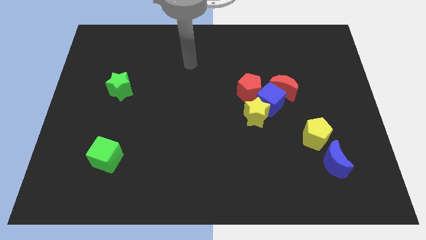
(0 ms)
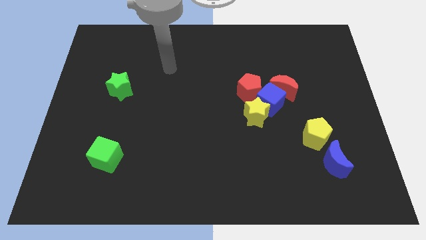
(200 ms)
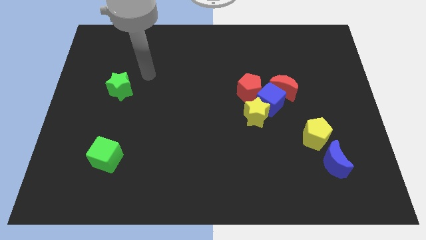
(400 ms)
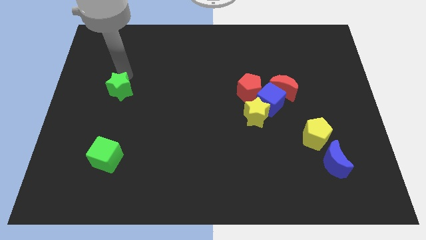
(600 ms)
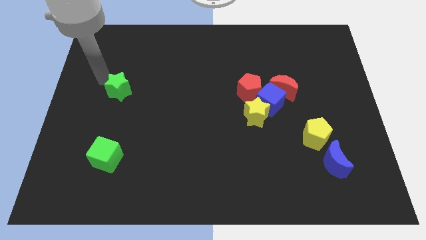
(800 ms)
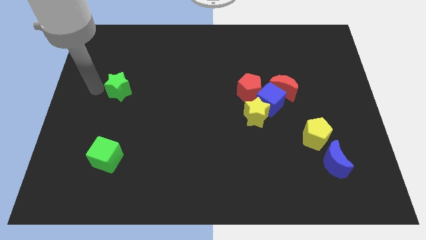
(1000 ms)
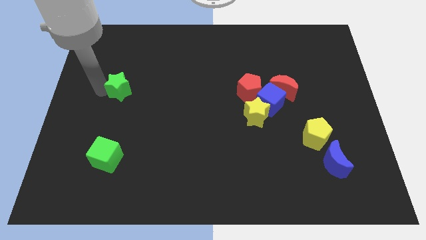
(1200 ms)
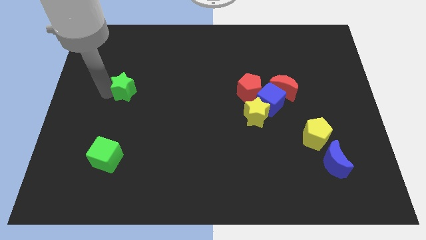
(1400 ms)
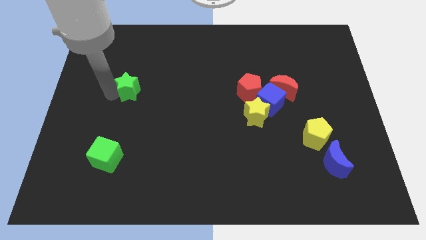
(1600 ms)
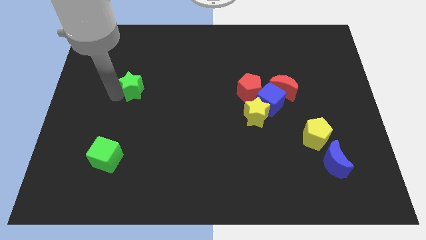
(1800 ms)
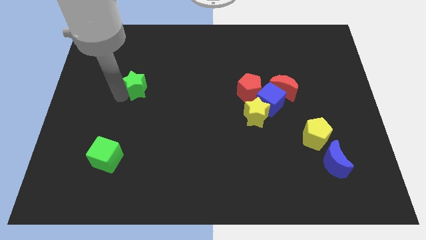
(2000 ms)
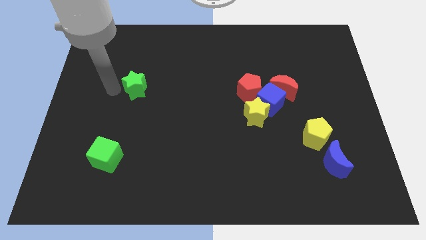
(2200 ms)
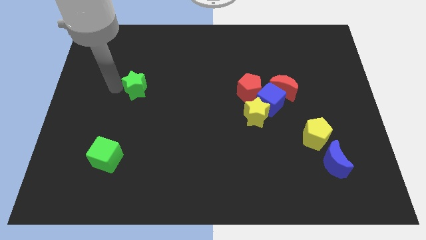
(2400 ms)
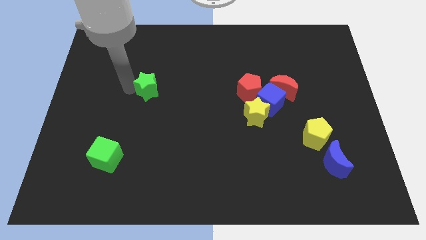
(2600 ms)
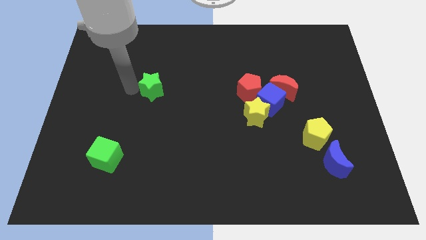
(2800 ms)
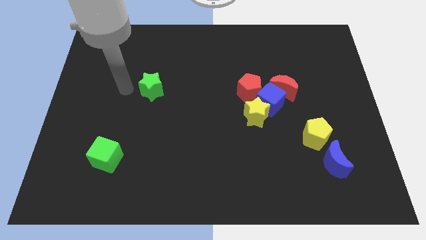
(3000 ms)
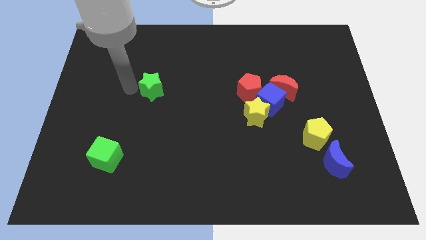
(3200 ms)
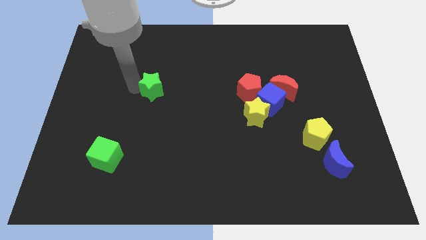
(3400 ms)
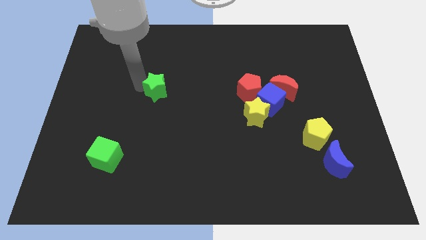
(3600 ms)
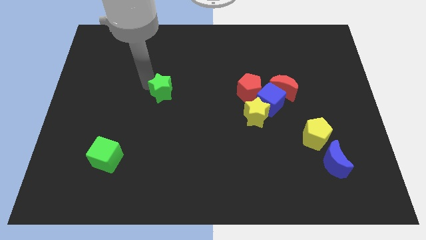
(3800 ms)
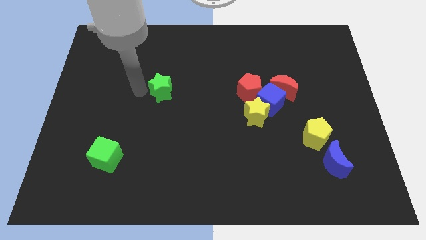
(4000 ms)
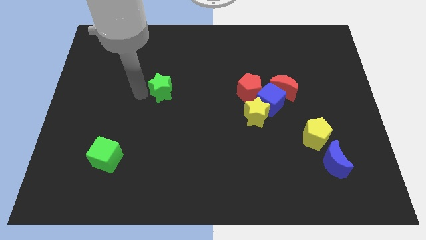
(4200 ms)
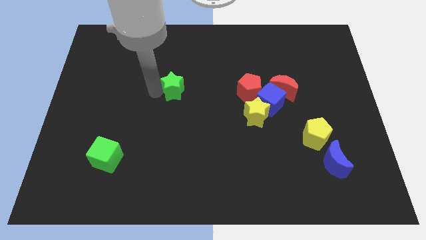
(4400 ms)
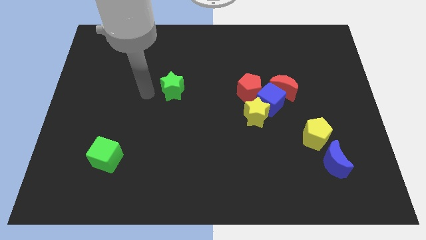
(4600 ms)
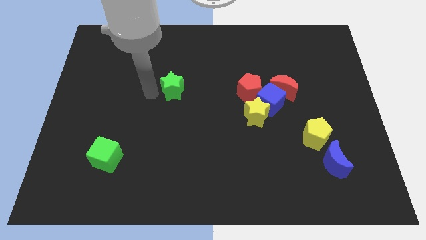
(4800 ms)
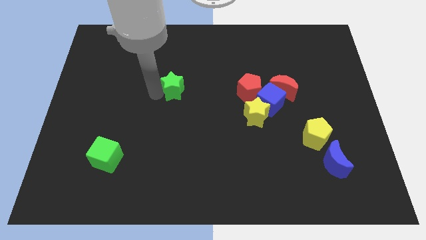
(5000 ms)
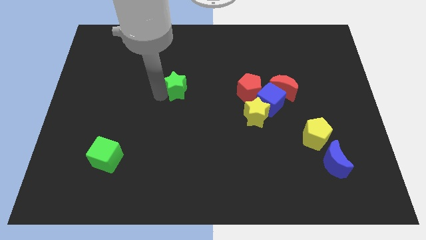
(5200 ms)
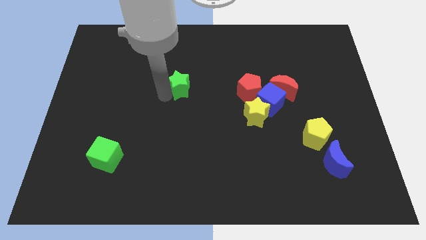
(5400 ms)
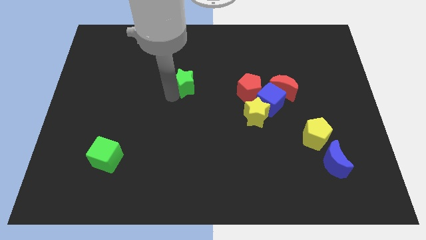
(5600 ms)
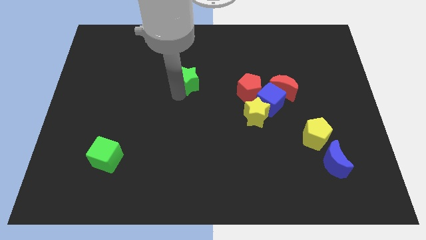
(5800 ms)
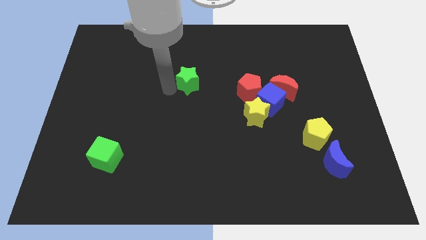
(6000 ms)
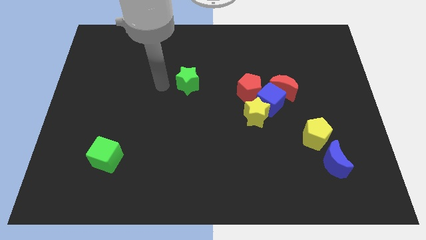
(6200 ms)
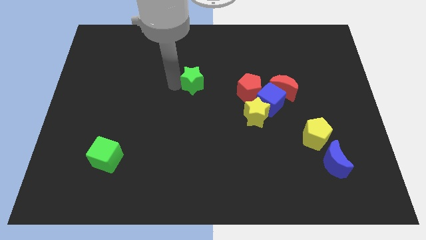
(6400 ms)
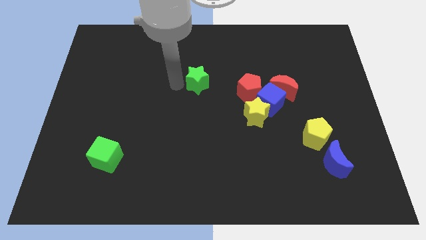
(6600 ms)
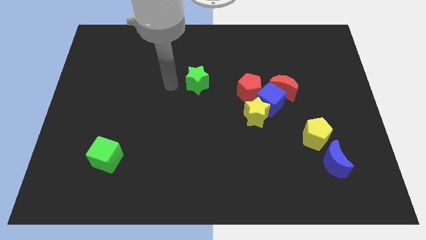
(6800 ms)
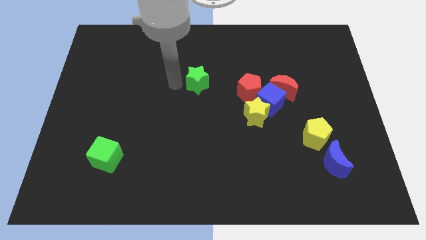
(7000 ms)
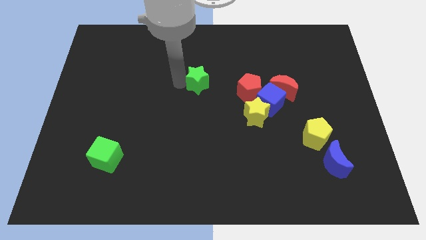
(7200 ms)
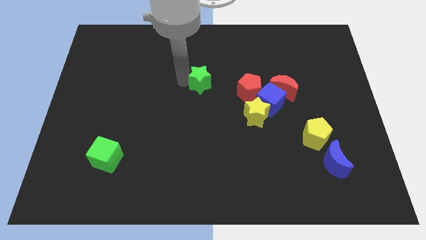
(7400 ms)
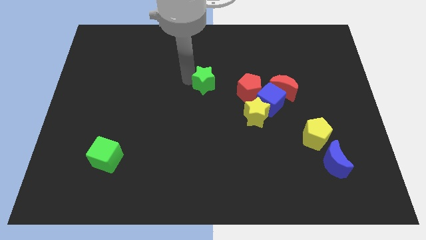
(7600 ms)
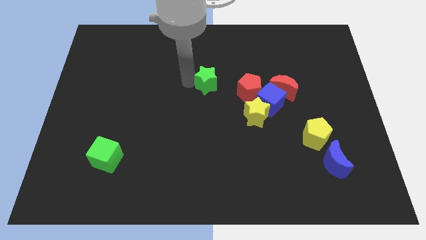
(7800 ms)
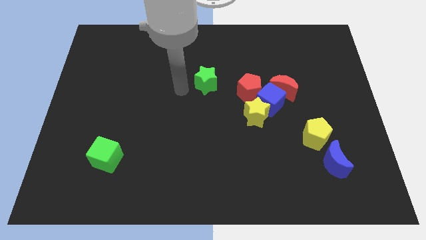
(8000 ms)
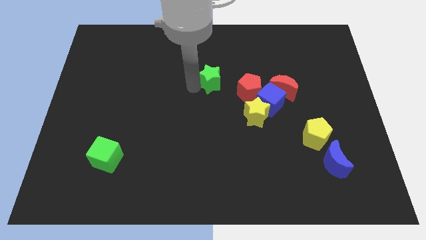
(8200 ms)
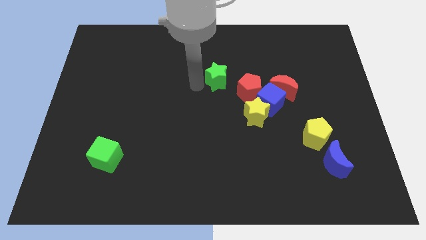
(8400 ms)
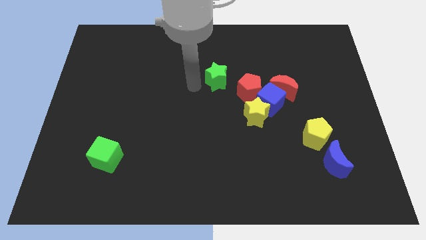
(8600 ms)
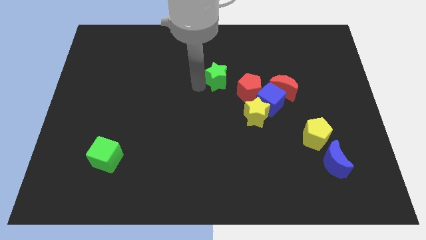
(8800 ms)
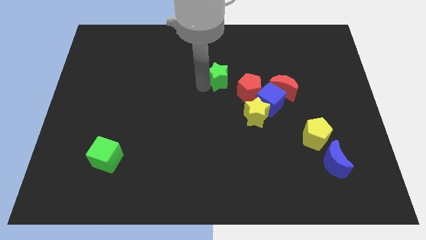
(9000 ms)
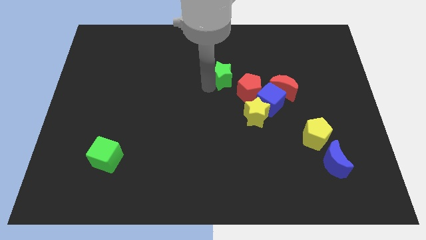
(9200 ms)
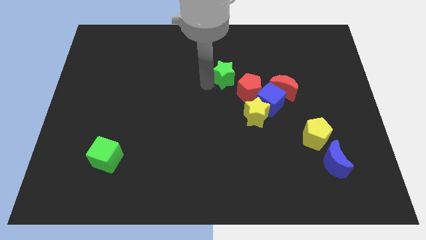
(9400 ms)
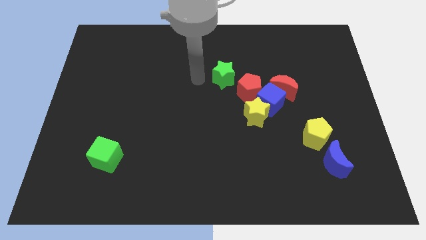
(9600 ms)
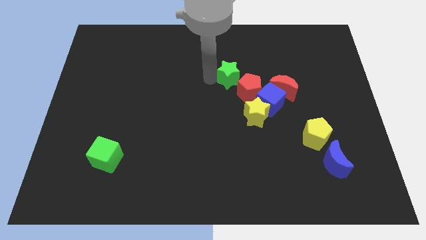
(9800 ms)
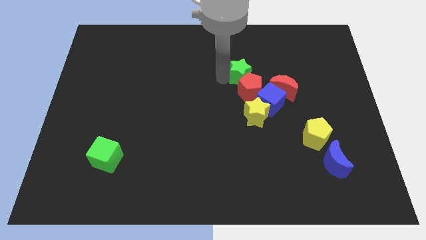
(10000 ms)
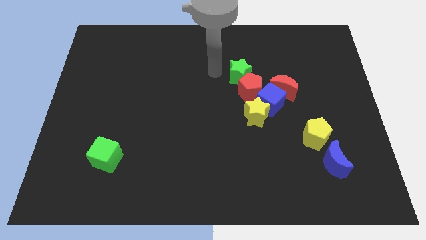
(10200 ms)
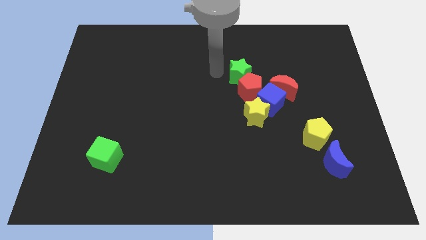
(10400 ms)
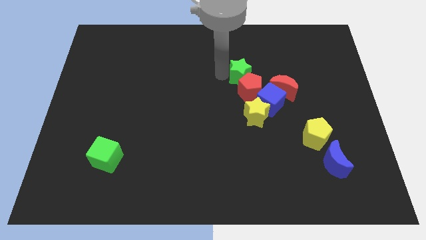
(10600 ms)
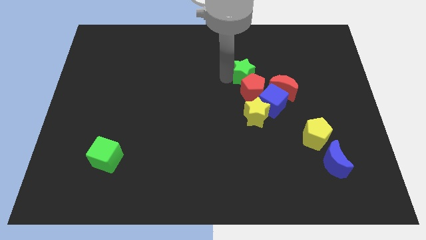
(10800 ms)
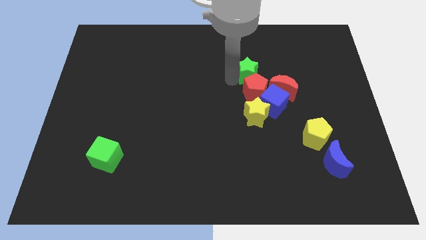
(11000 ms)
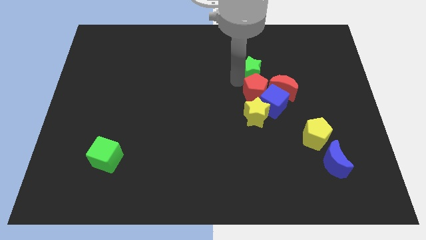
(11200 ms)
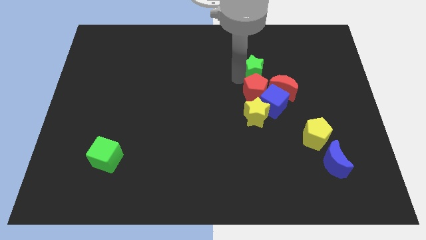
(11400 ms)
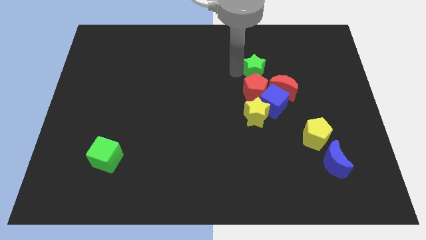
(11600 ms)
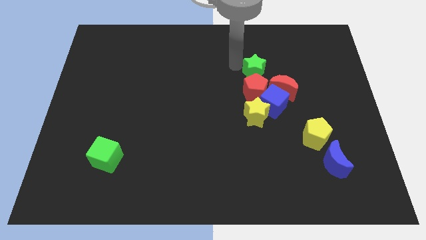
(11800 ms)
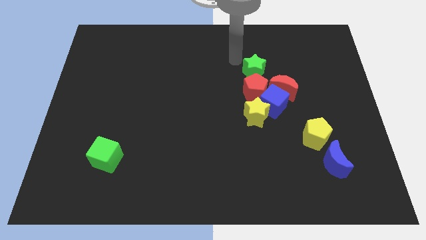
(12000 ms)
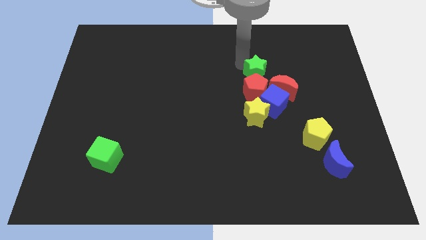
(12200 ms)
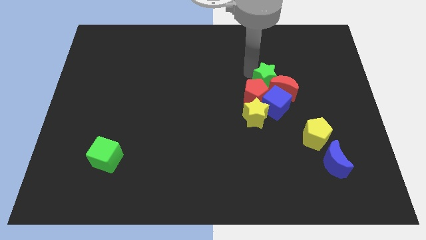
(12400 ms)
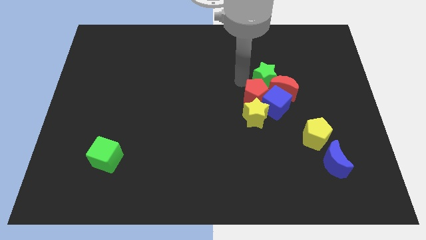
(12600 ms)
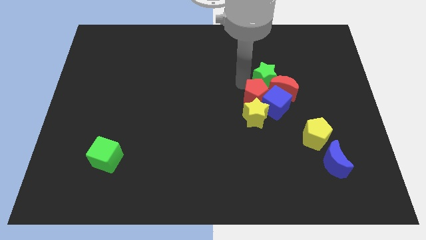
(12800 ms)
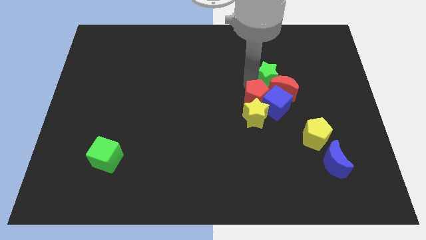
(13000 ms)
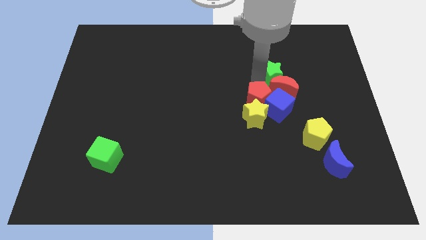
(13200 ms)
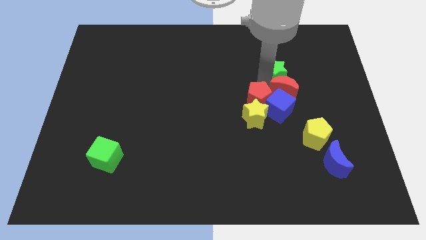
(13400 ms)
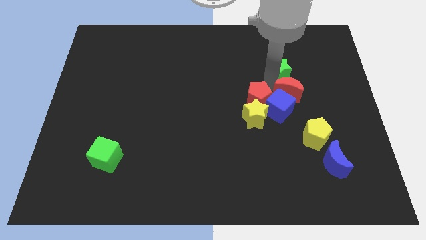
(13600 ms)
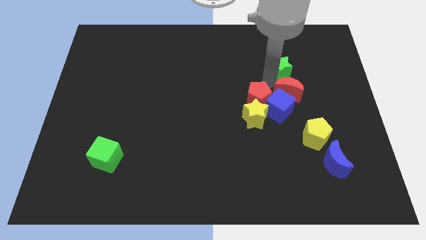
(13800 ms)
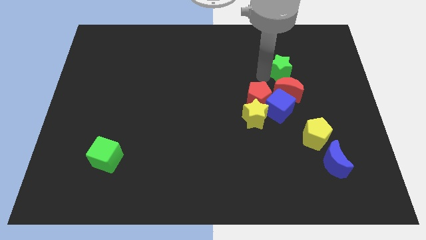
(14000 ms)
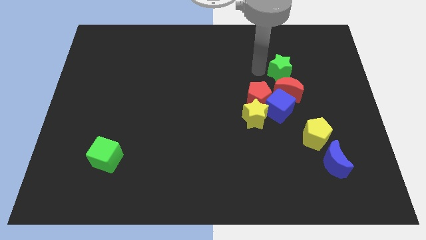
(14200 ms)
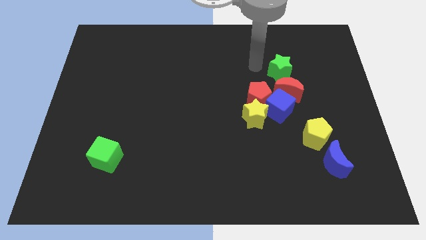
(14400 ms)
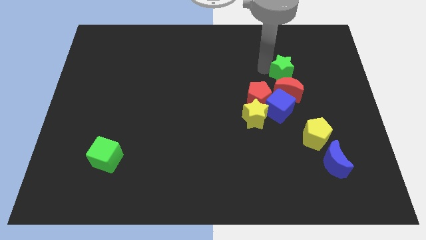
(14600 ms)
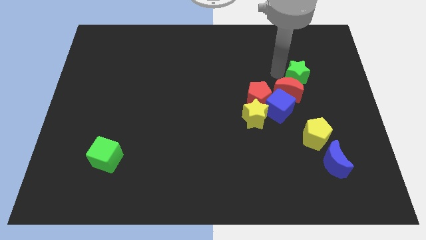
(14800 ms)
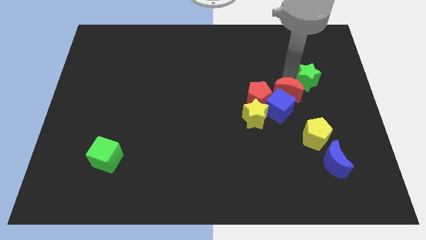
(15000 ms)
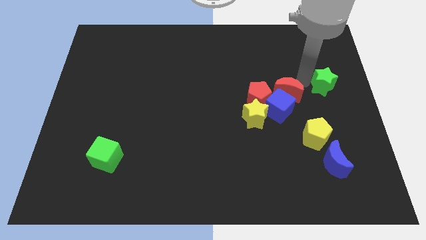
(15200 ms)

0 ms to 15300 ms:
slide the green star to the center right
